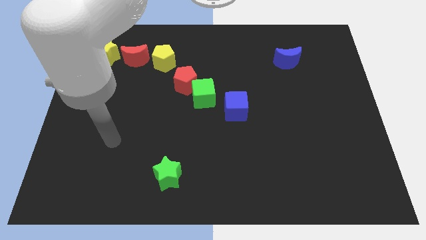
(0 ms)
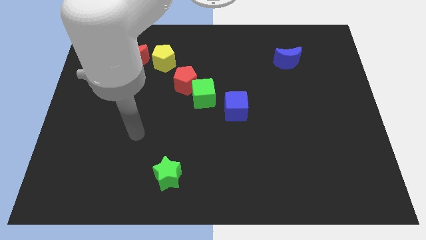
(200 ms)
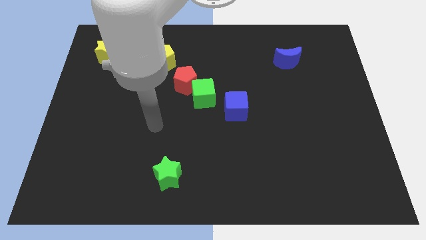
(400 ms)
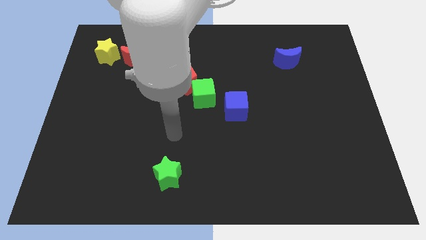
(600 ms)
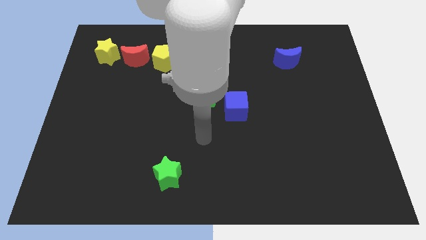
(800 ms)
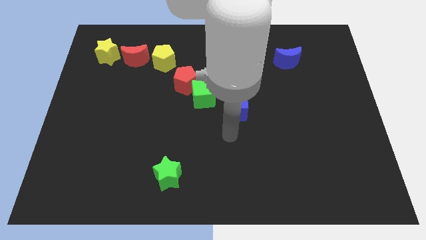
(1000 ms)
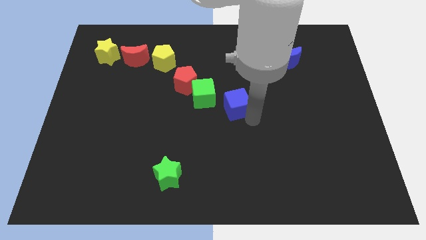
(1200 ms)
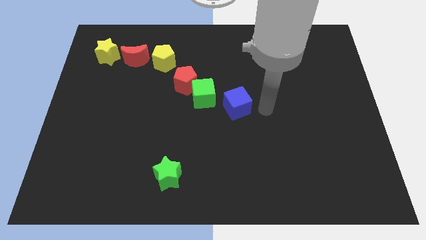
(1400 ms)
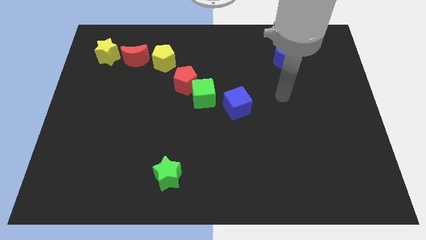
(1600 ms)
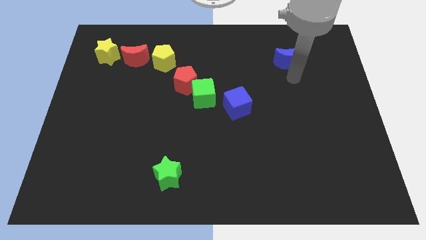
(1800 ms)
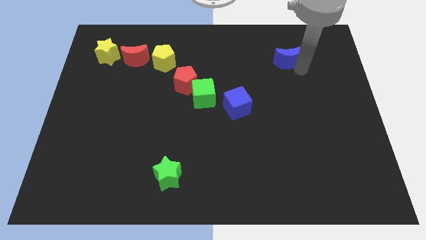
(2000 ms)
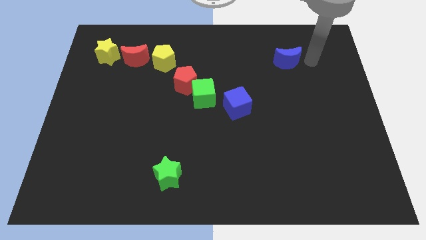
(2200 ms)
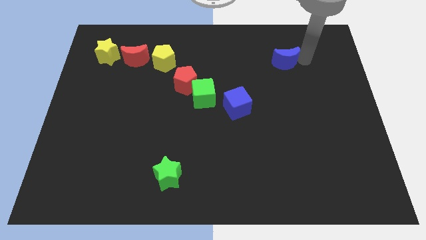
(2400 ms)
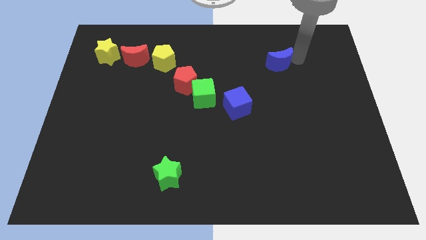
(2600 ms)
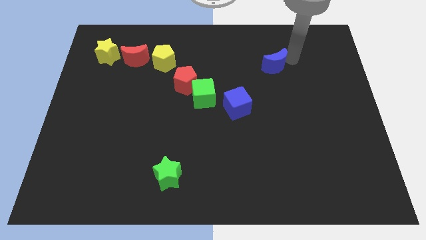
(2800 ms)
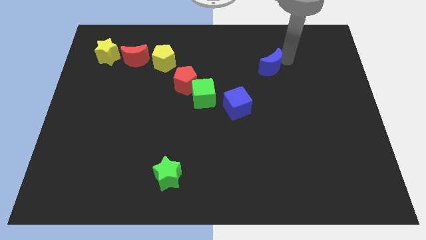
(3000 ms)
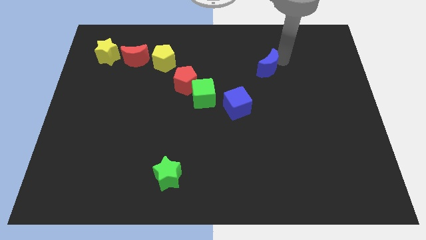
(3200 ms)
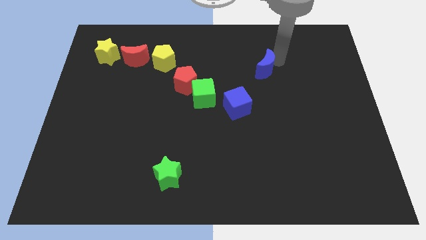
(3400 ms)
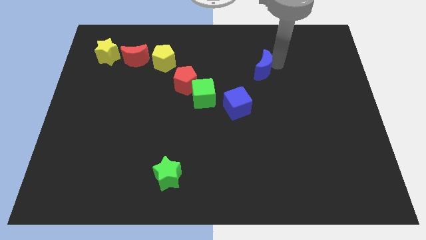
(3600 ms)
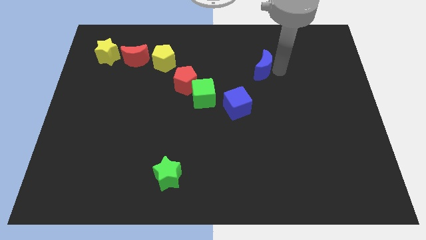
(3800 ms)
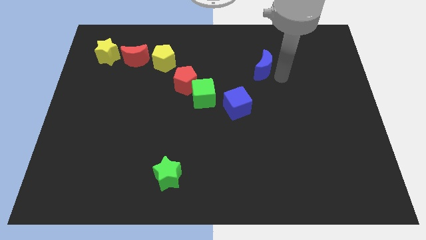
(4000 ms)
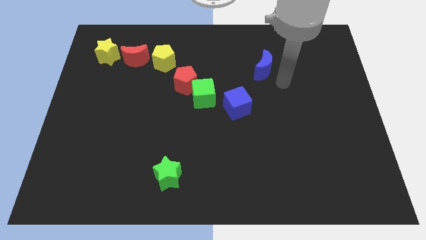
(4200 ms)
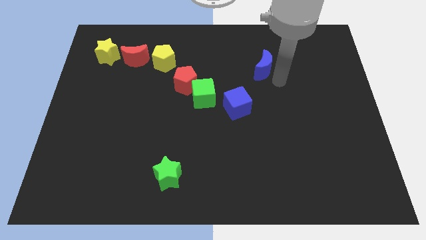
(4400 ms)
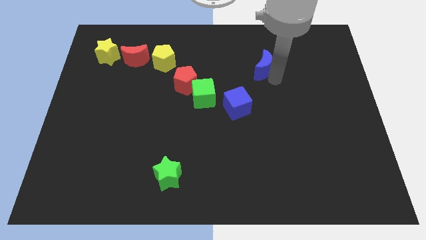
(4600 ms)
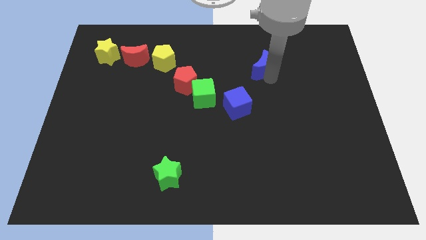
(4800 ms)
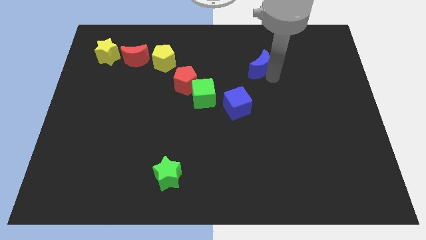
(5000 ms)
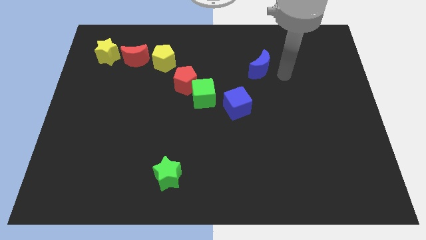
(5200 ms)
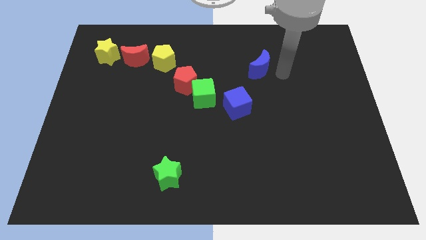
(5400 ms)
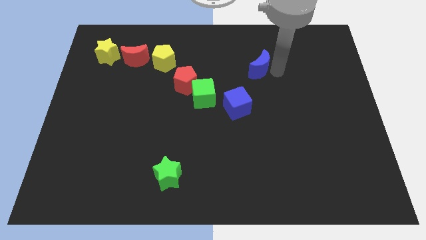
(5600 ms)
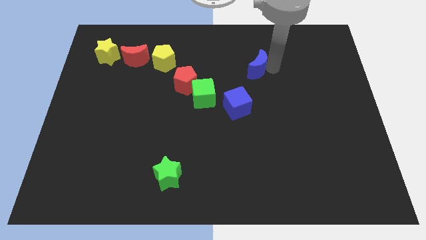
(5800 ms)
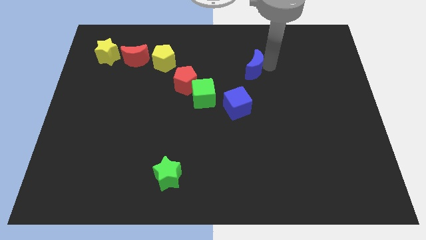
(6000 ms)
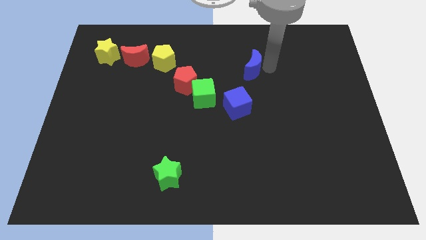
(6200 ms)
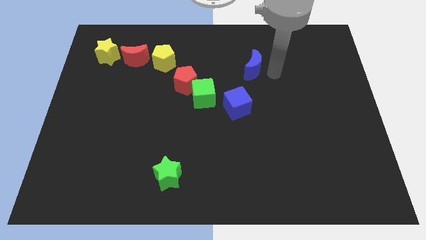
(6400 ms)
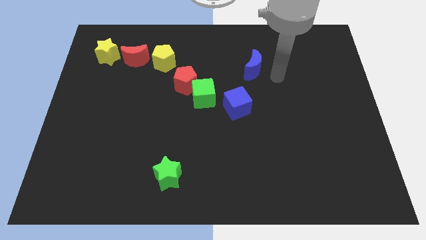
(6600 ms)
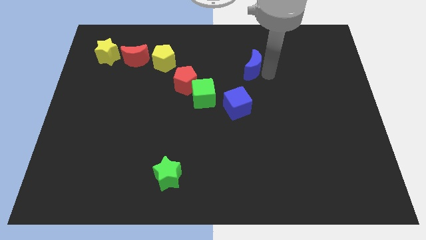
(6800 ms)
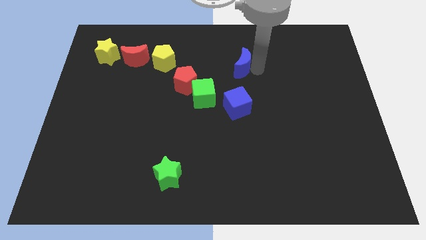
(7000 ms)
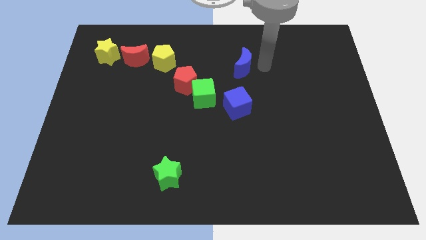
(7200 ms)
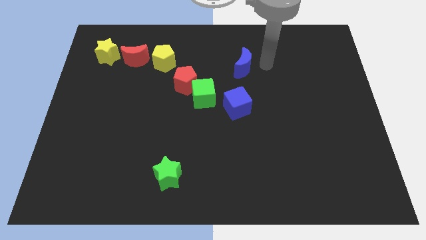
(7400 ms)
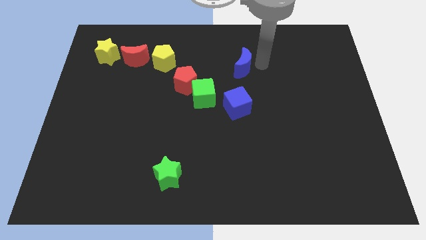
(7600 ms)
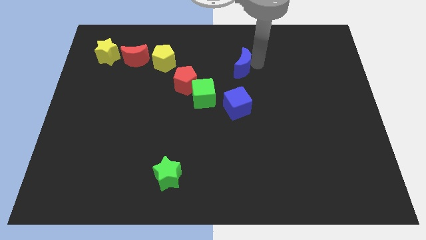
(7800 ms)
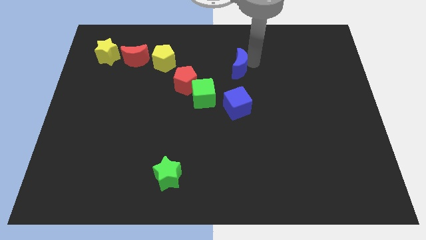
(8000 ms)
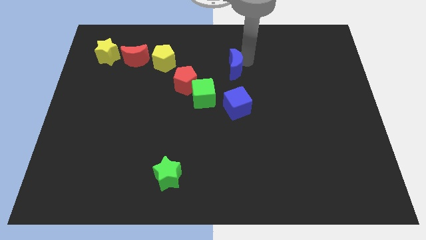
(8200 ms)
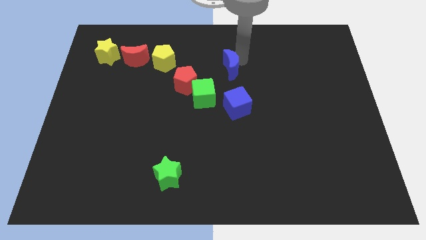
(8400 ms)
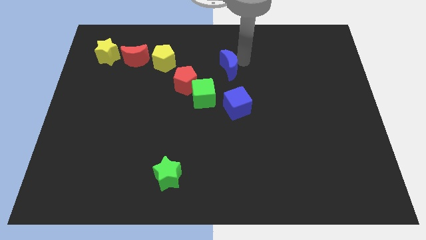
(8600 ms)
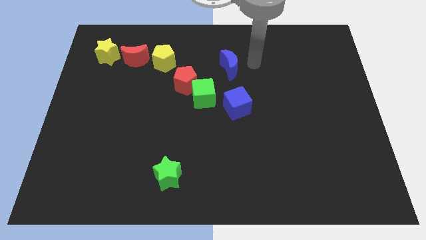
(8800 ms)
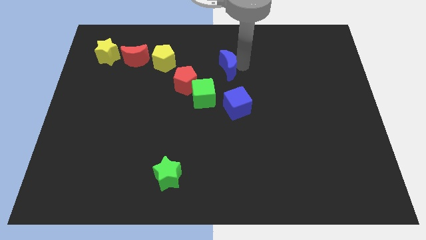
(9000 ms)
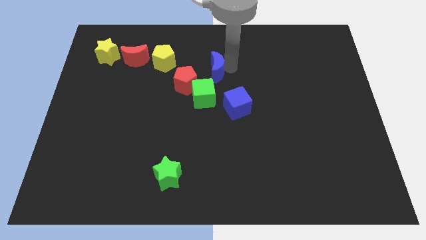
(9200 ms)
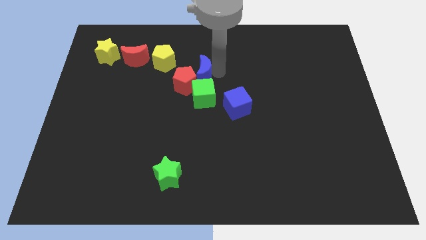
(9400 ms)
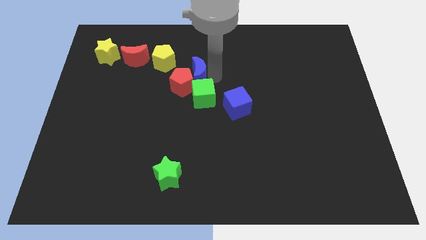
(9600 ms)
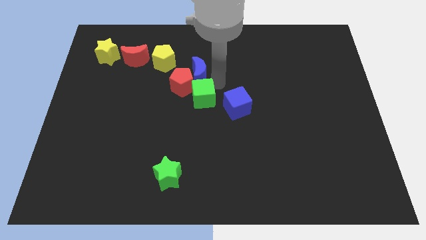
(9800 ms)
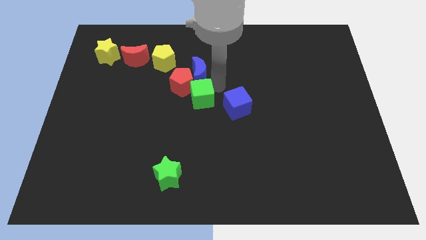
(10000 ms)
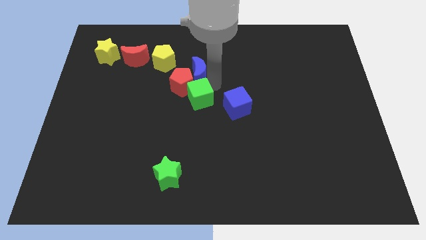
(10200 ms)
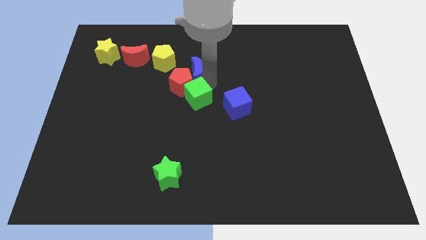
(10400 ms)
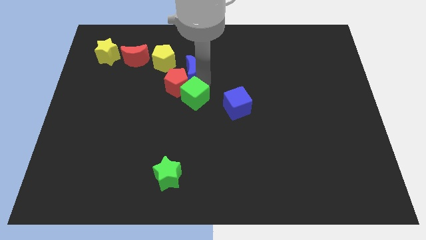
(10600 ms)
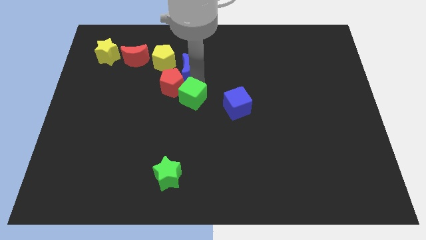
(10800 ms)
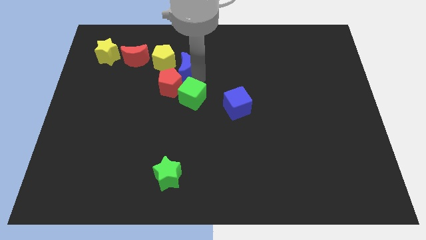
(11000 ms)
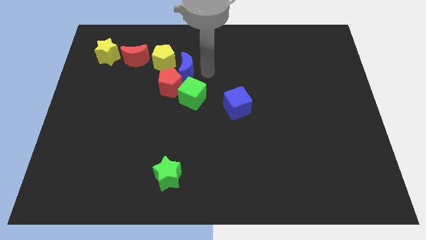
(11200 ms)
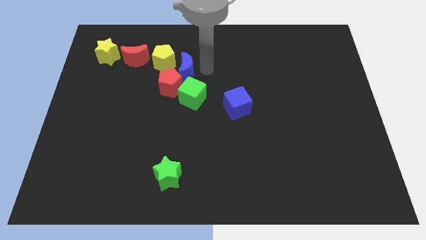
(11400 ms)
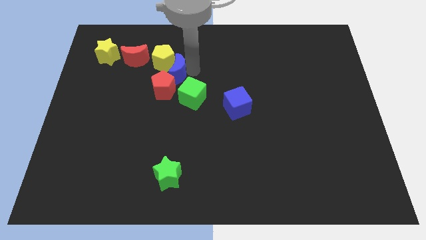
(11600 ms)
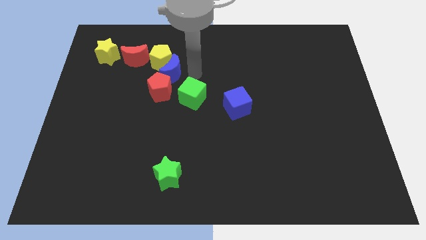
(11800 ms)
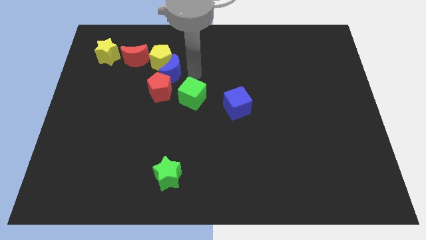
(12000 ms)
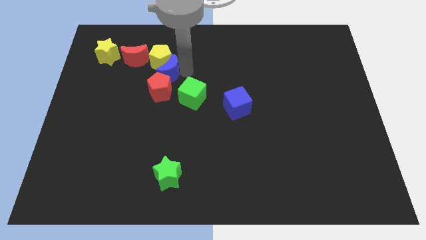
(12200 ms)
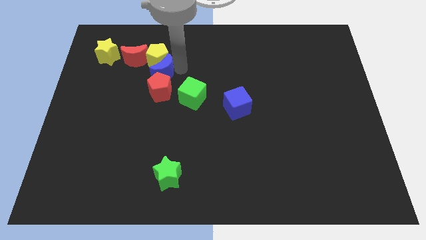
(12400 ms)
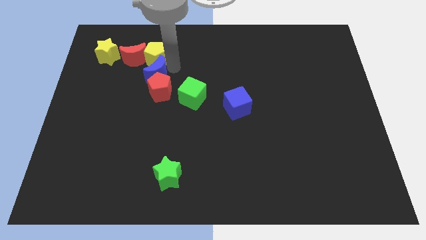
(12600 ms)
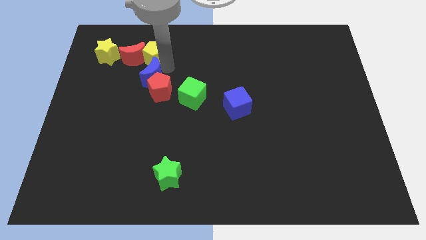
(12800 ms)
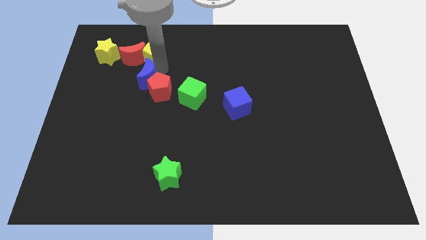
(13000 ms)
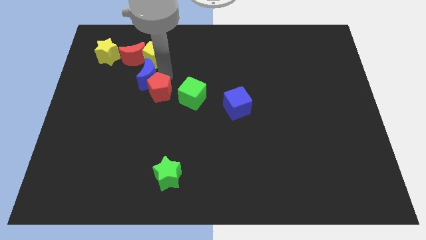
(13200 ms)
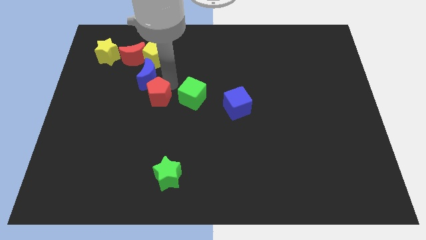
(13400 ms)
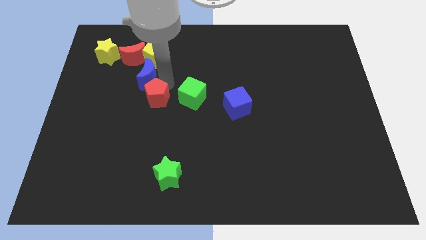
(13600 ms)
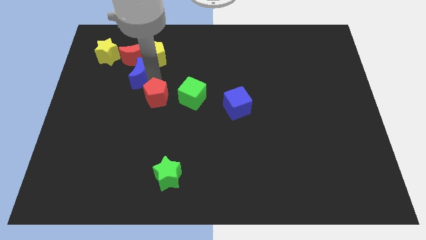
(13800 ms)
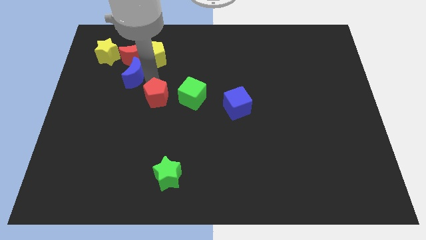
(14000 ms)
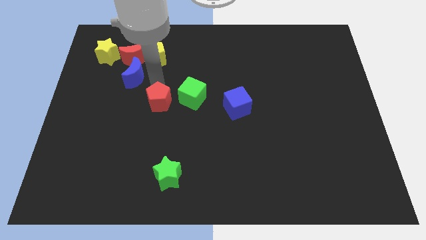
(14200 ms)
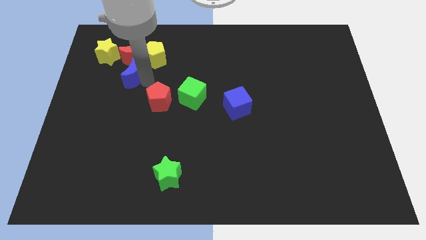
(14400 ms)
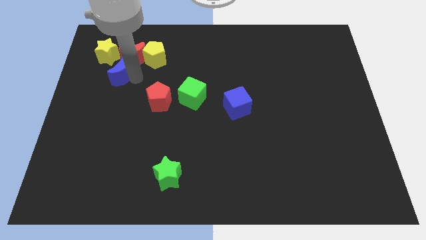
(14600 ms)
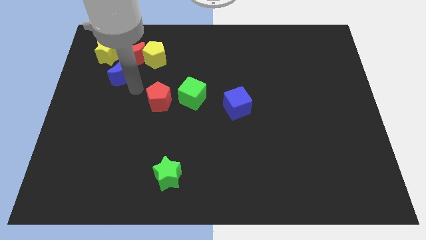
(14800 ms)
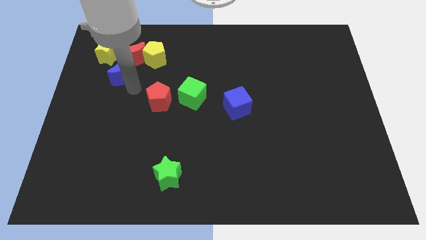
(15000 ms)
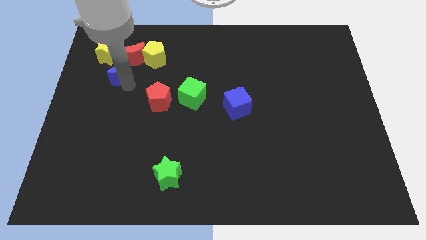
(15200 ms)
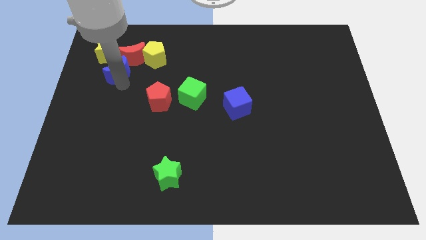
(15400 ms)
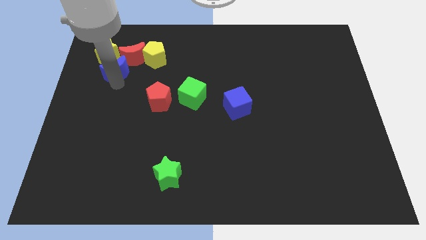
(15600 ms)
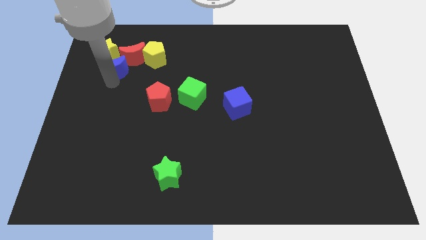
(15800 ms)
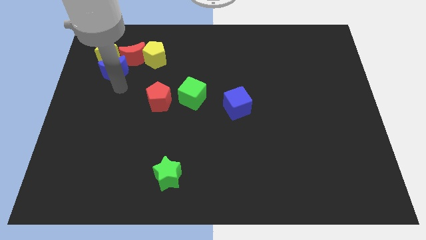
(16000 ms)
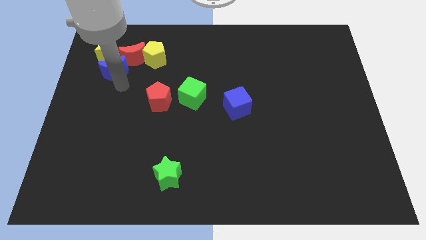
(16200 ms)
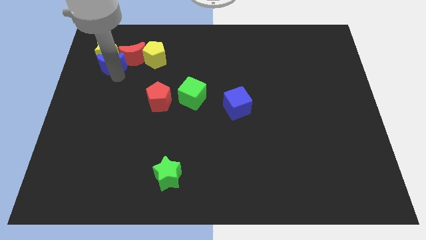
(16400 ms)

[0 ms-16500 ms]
push the blue moon to the yellow star
